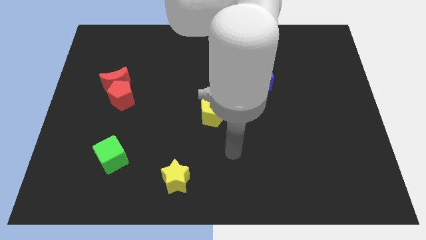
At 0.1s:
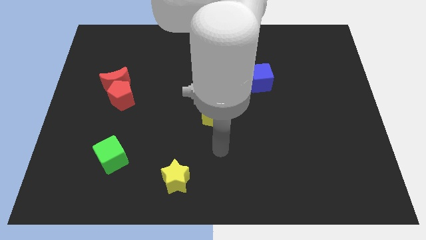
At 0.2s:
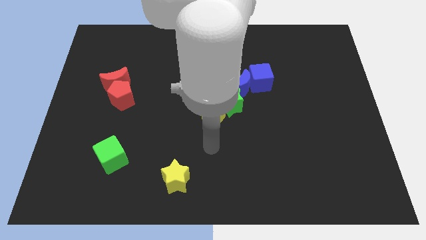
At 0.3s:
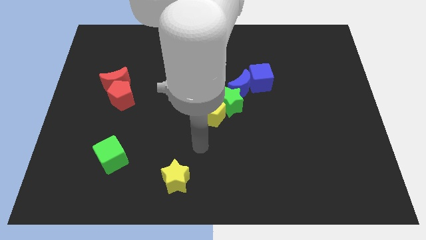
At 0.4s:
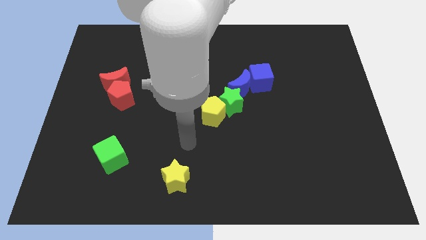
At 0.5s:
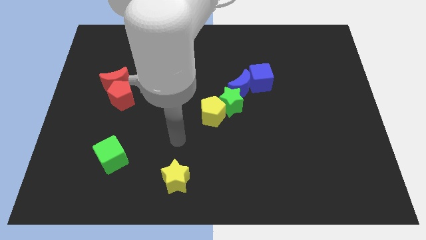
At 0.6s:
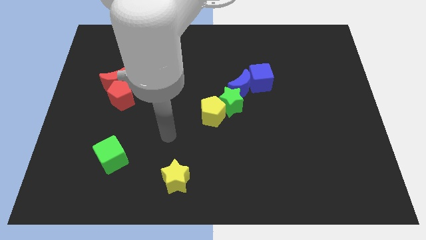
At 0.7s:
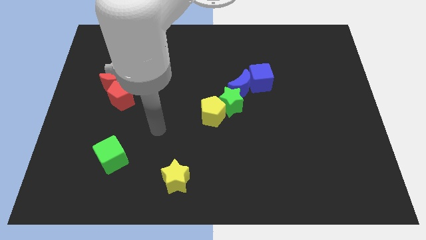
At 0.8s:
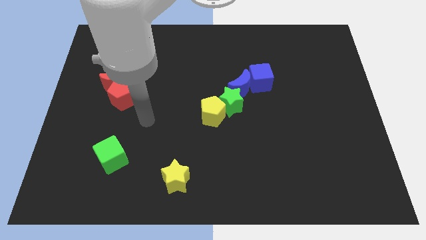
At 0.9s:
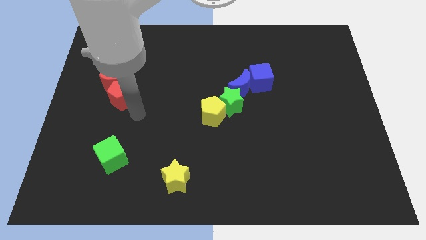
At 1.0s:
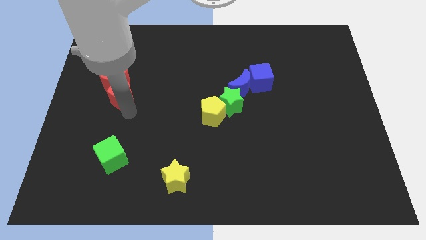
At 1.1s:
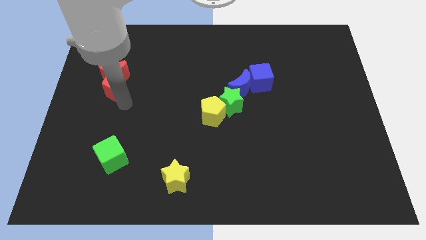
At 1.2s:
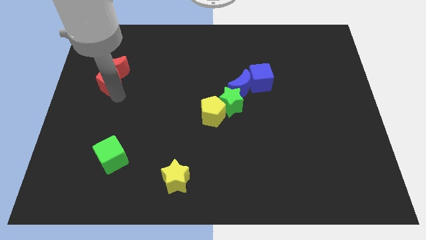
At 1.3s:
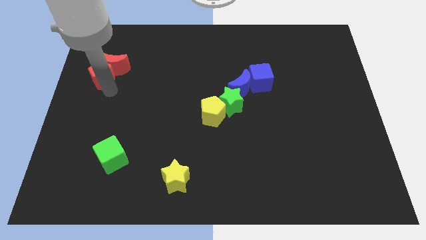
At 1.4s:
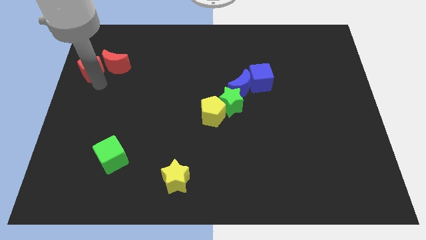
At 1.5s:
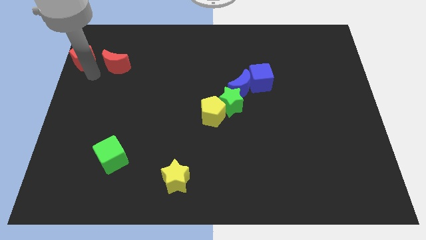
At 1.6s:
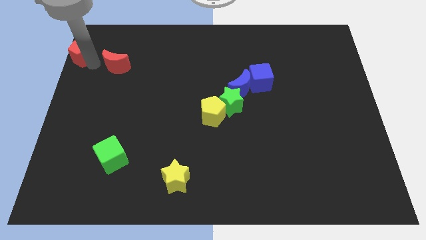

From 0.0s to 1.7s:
move the red moon away from the red pentagon

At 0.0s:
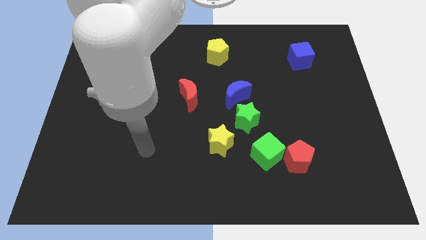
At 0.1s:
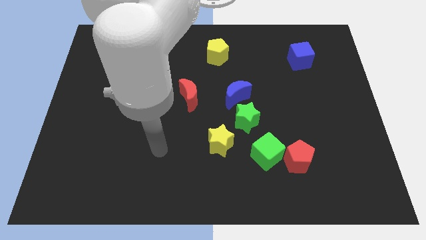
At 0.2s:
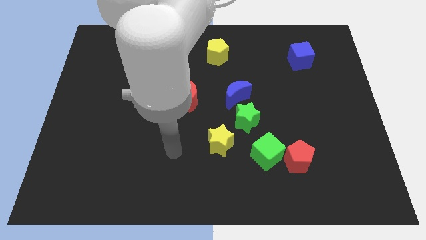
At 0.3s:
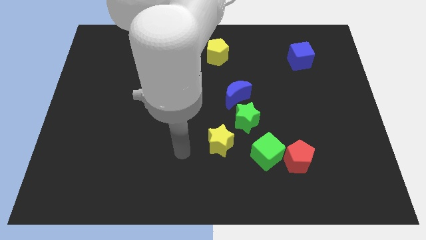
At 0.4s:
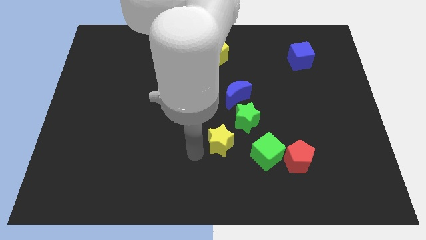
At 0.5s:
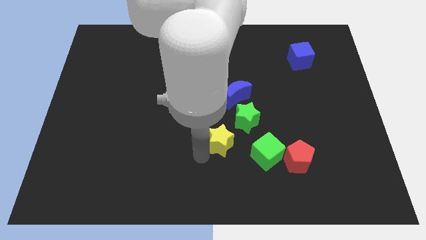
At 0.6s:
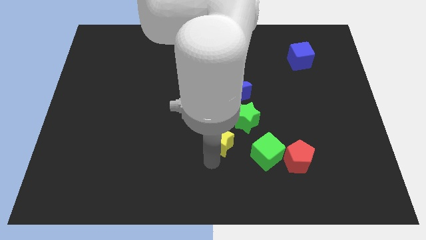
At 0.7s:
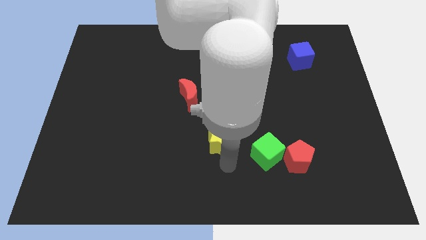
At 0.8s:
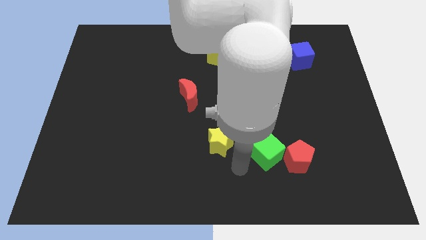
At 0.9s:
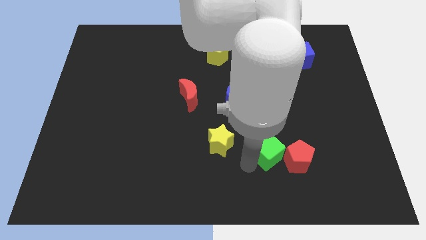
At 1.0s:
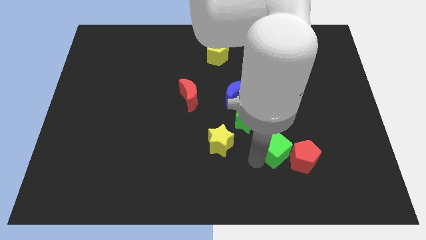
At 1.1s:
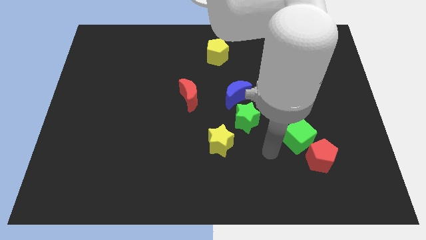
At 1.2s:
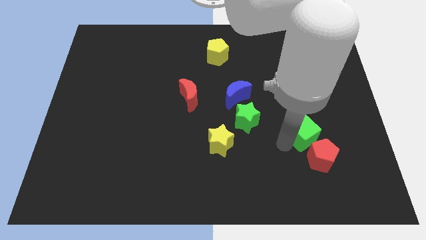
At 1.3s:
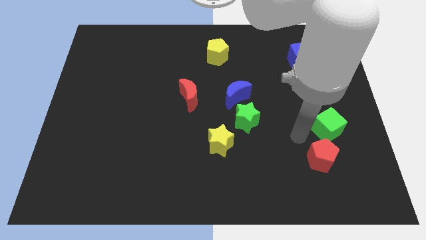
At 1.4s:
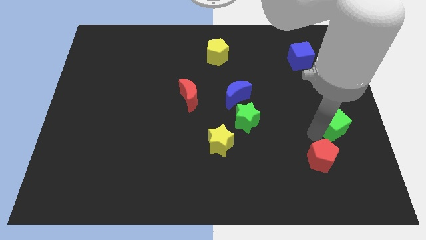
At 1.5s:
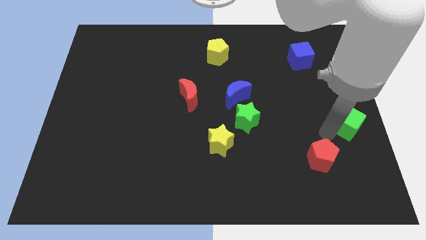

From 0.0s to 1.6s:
move the red pentagon away from the green cube

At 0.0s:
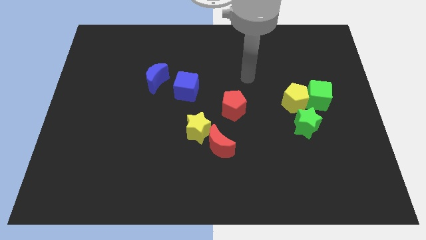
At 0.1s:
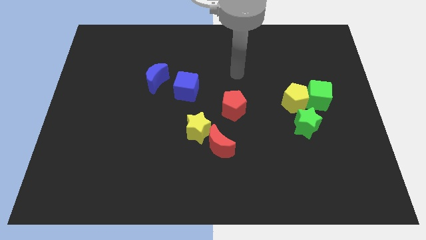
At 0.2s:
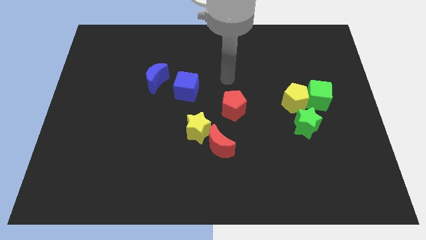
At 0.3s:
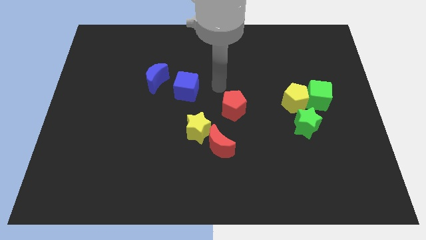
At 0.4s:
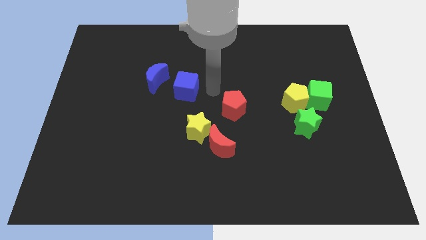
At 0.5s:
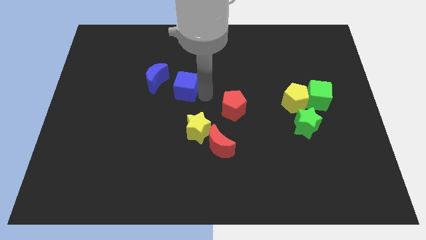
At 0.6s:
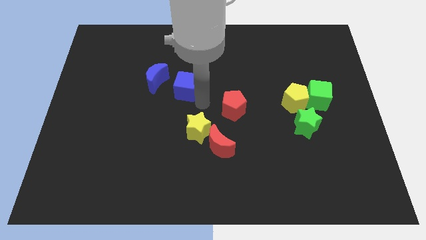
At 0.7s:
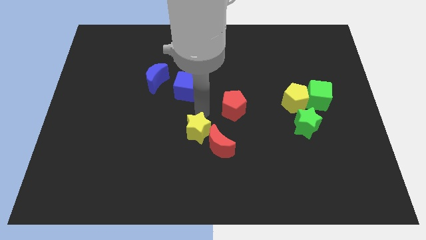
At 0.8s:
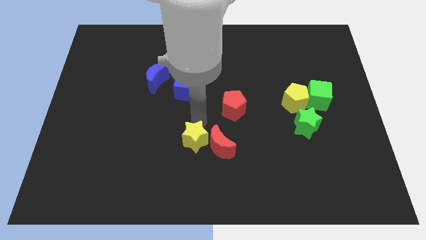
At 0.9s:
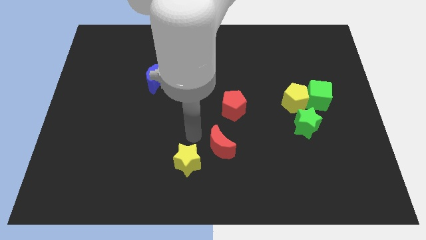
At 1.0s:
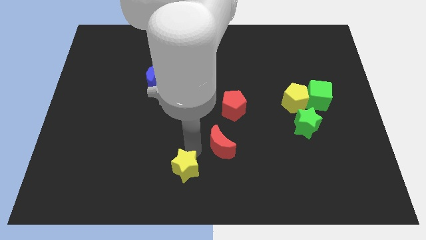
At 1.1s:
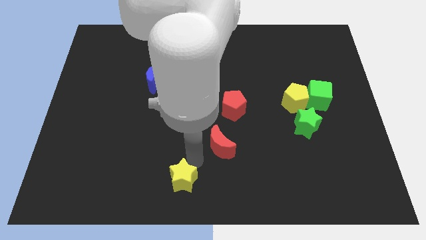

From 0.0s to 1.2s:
separate the red moon from the yellow star

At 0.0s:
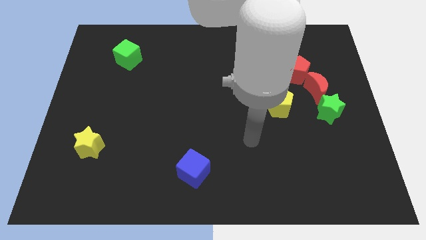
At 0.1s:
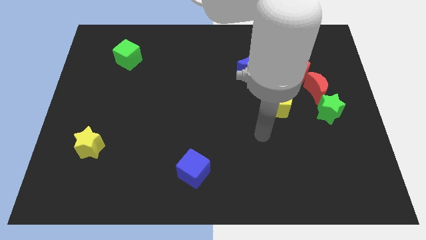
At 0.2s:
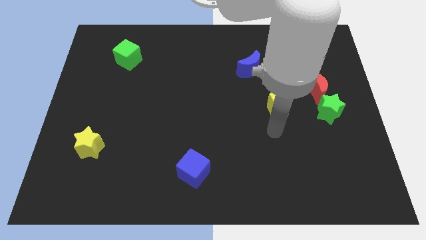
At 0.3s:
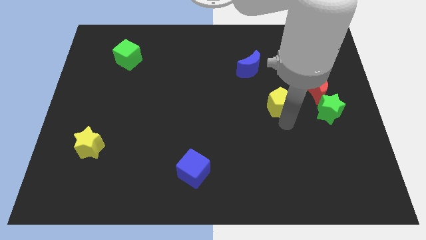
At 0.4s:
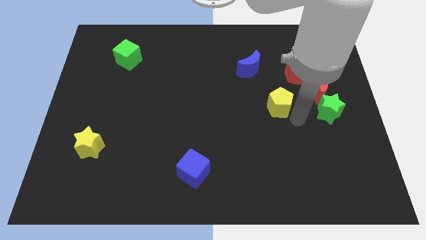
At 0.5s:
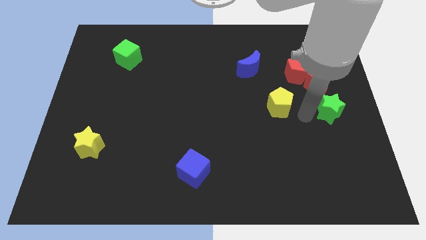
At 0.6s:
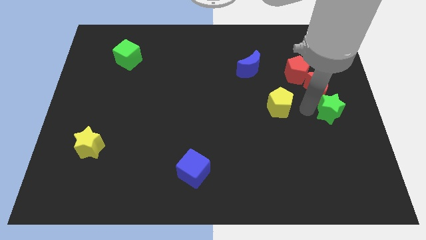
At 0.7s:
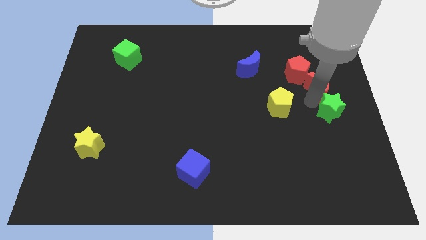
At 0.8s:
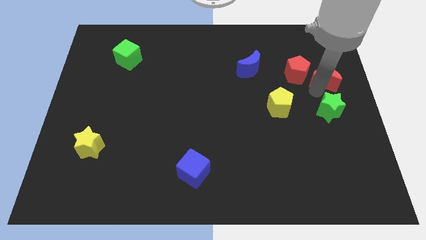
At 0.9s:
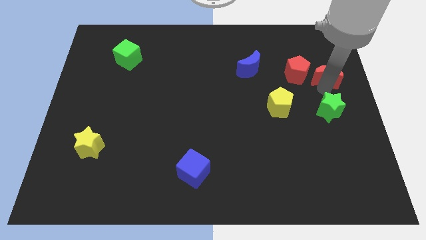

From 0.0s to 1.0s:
move the green star away from the red moon

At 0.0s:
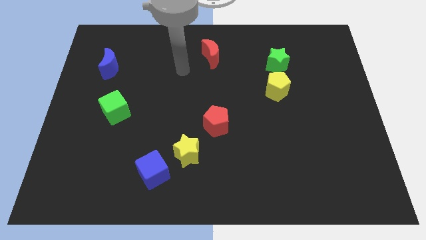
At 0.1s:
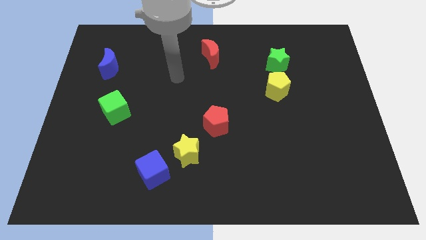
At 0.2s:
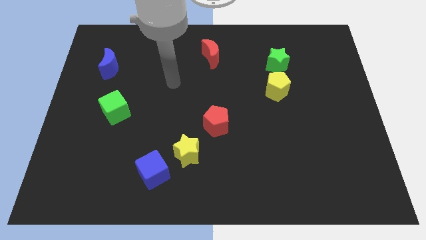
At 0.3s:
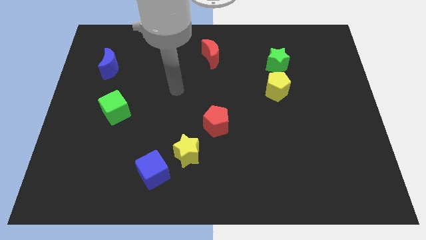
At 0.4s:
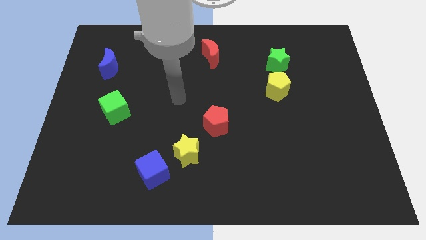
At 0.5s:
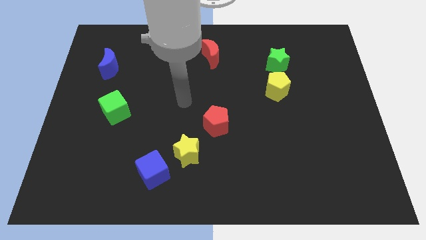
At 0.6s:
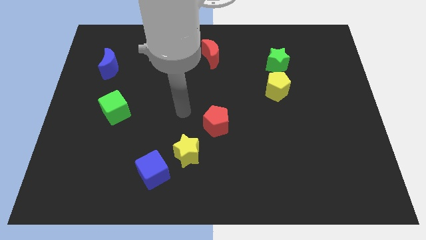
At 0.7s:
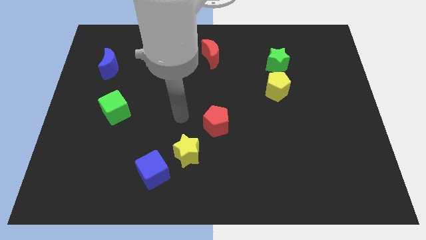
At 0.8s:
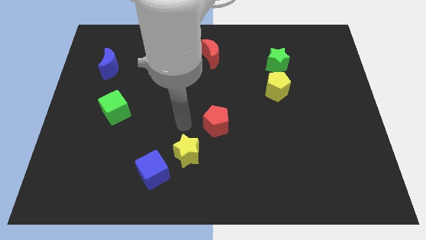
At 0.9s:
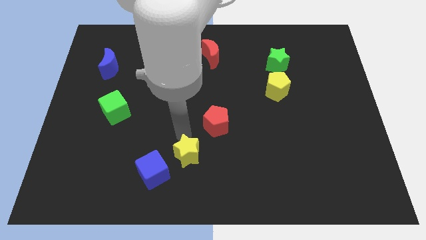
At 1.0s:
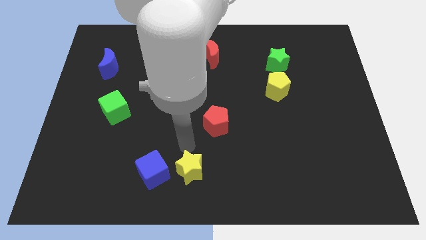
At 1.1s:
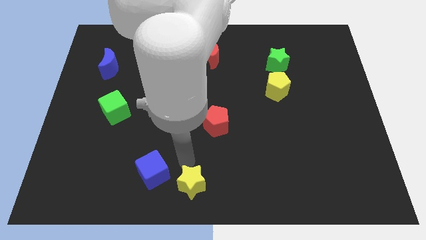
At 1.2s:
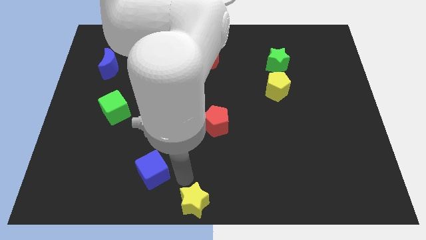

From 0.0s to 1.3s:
pull the blue cube apart from the yellow star

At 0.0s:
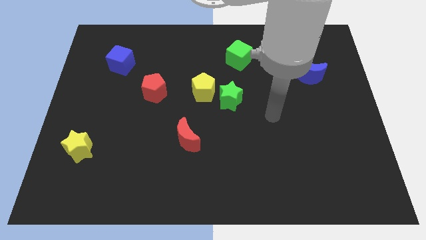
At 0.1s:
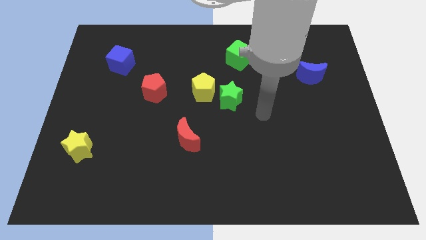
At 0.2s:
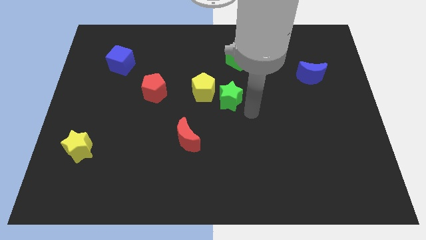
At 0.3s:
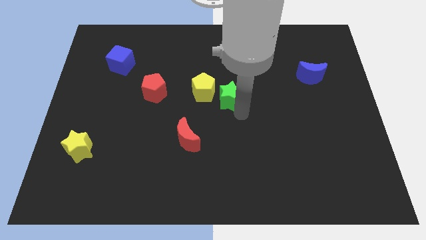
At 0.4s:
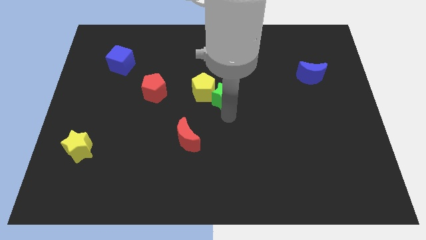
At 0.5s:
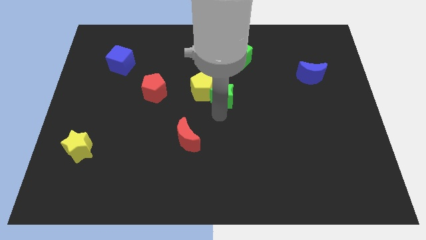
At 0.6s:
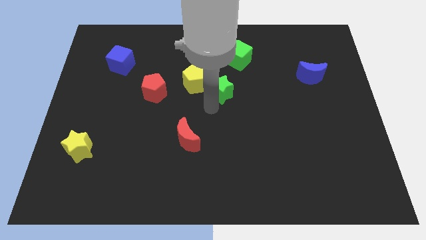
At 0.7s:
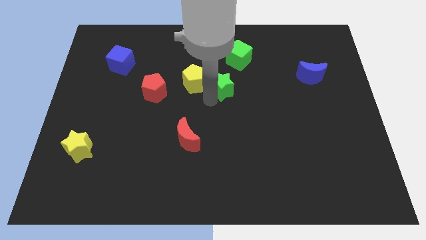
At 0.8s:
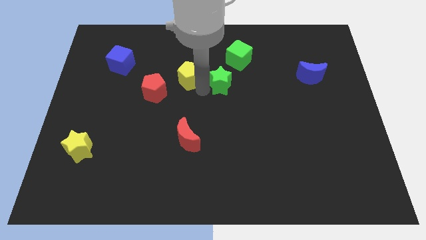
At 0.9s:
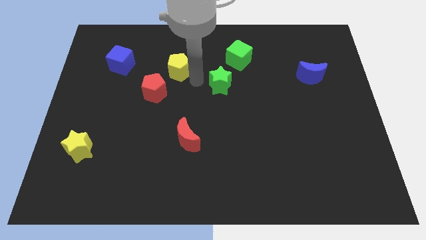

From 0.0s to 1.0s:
move the green star away from the yellow pentagon

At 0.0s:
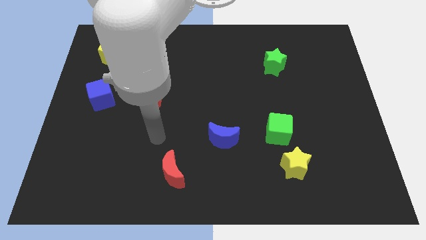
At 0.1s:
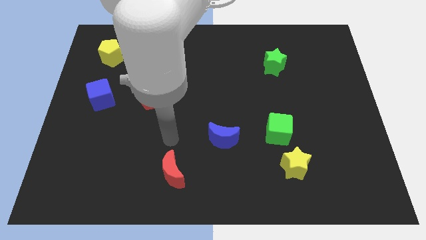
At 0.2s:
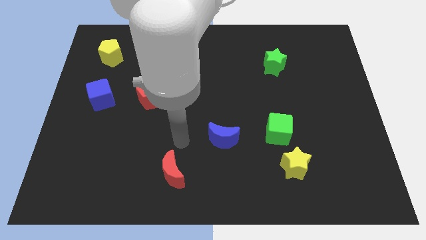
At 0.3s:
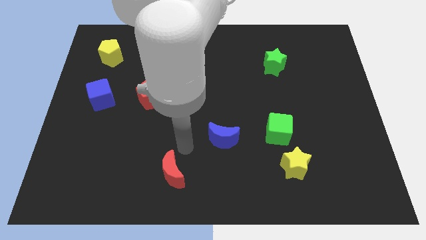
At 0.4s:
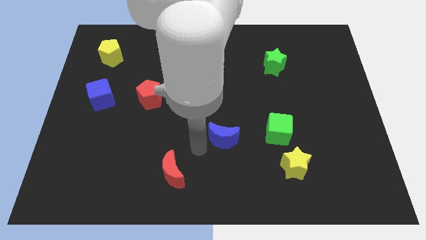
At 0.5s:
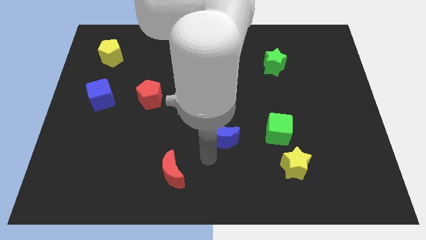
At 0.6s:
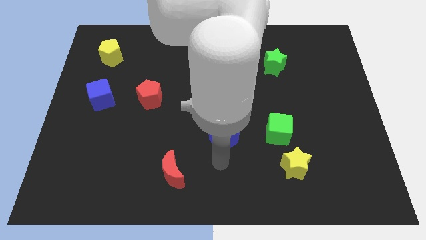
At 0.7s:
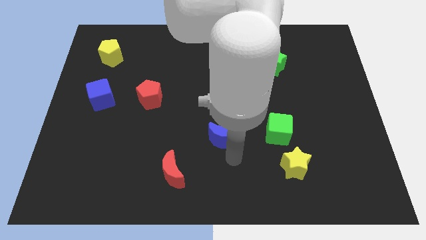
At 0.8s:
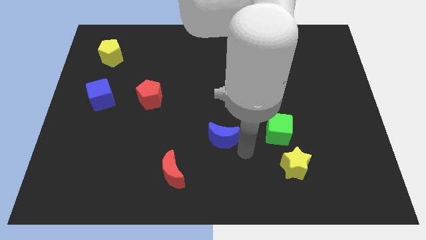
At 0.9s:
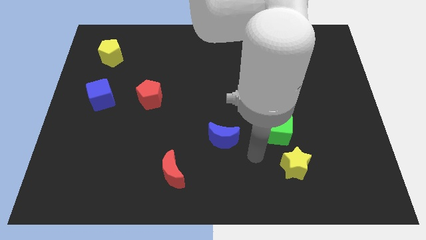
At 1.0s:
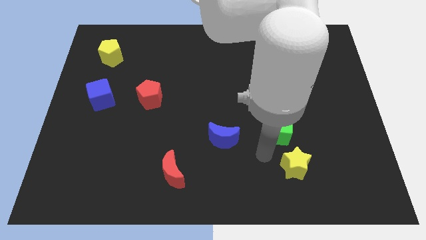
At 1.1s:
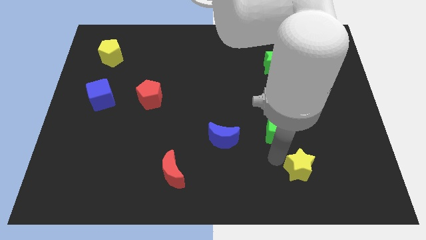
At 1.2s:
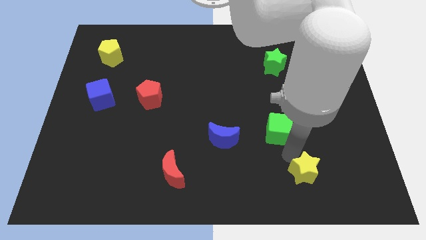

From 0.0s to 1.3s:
pull the green cube apart from the yellow star

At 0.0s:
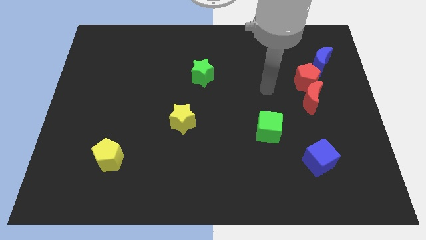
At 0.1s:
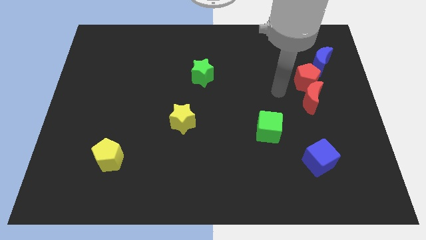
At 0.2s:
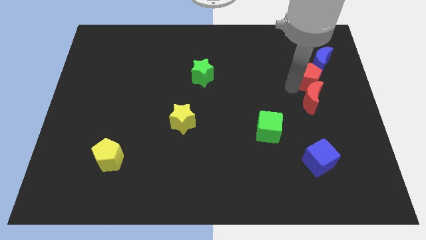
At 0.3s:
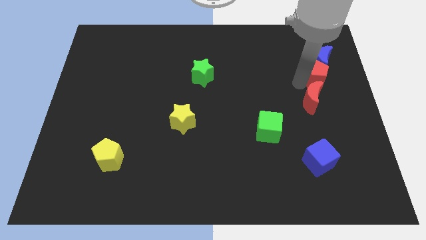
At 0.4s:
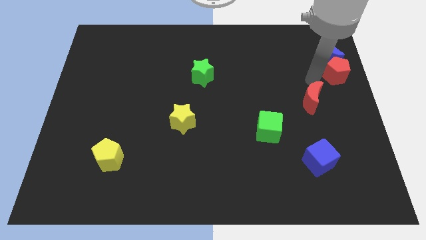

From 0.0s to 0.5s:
separate the red moon from the red pentagon
